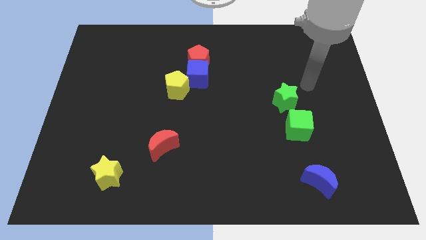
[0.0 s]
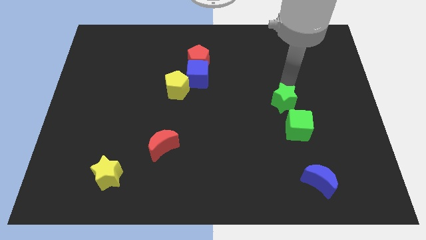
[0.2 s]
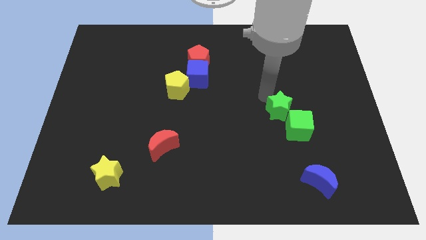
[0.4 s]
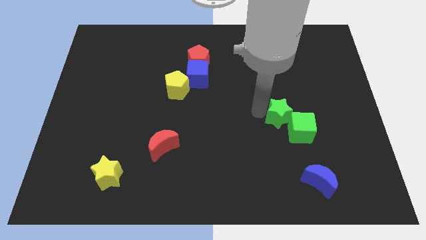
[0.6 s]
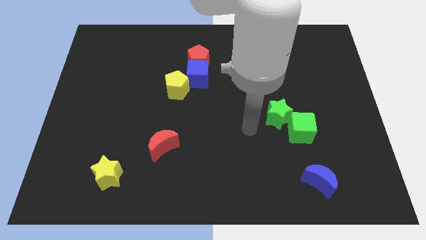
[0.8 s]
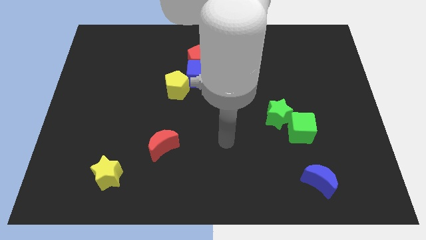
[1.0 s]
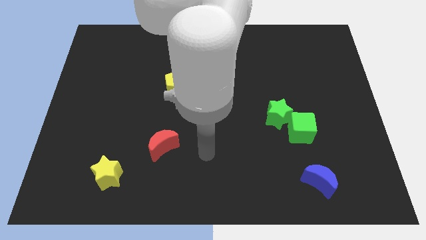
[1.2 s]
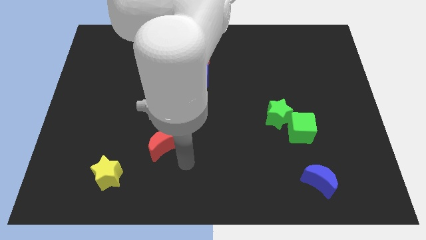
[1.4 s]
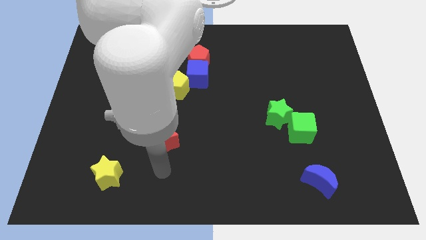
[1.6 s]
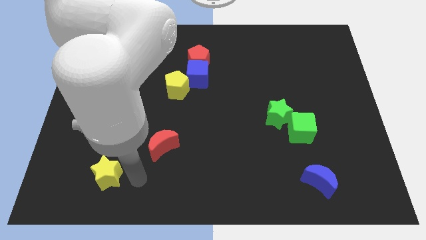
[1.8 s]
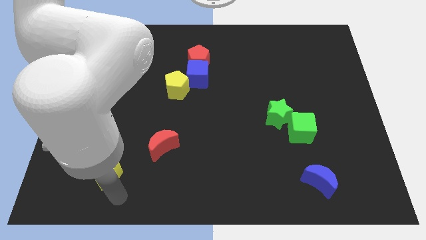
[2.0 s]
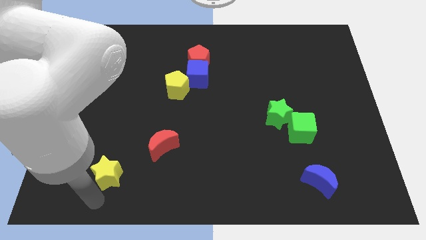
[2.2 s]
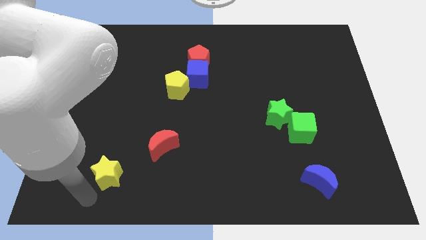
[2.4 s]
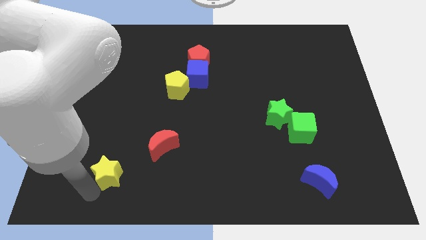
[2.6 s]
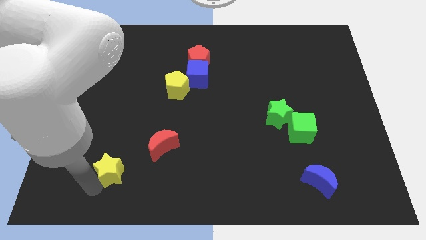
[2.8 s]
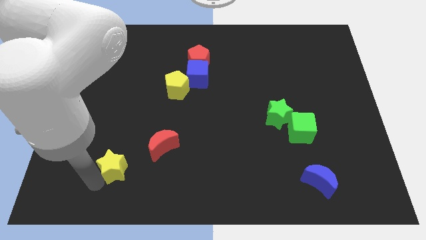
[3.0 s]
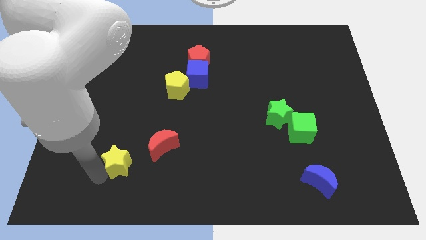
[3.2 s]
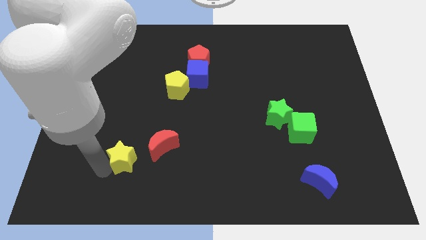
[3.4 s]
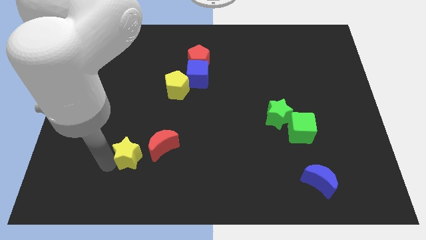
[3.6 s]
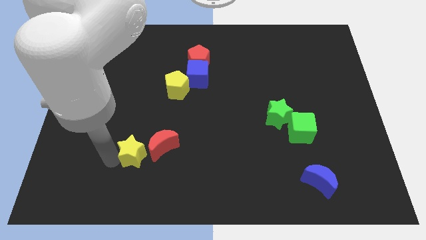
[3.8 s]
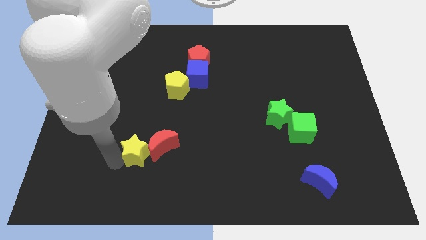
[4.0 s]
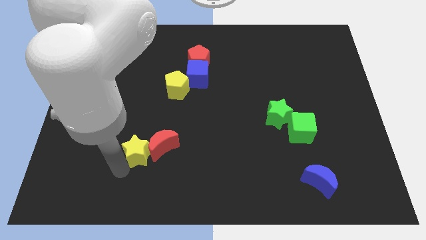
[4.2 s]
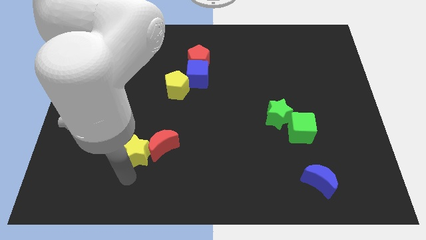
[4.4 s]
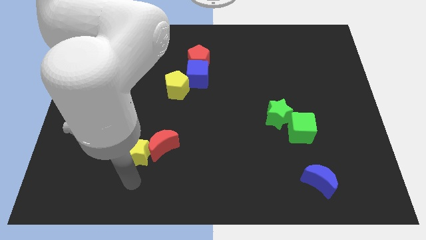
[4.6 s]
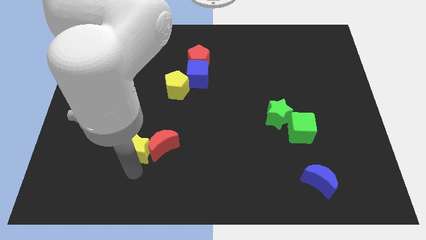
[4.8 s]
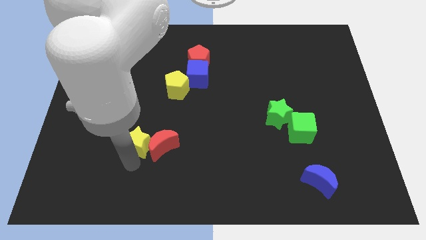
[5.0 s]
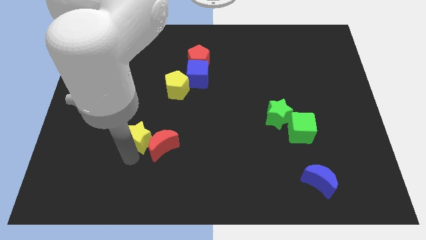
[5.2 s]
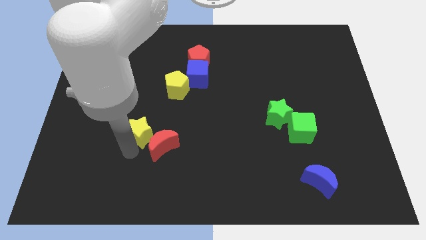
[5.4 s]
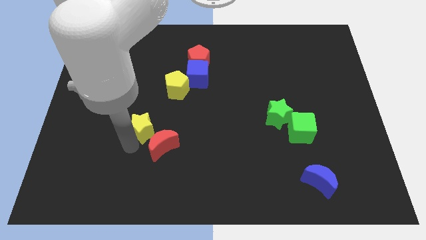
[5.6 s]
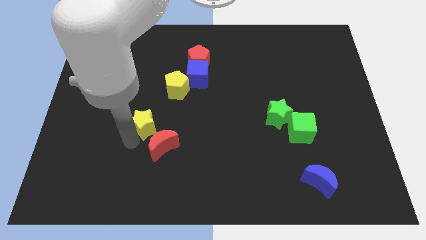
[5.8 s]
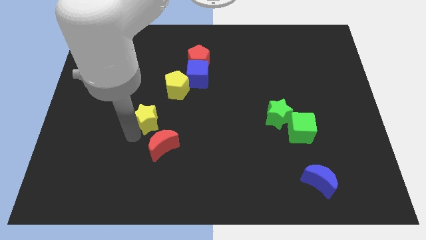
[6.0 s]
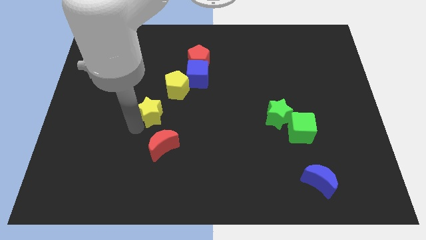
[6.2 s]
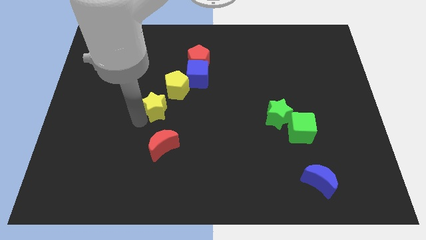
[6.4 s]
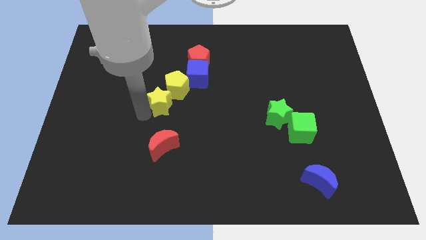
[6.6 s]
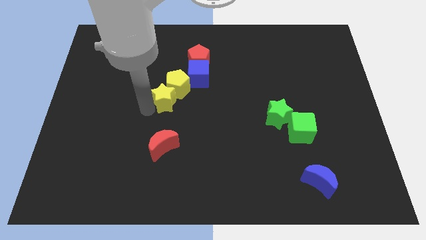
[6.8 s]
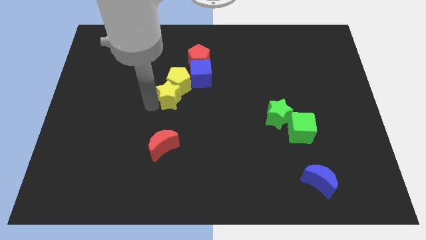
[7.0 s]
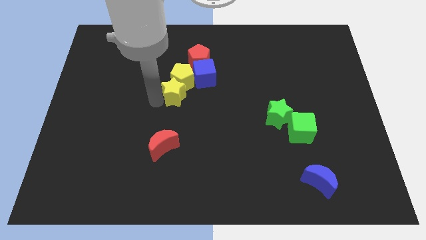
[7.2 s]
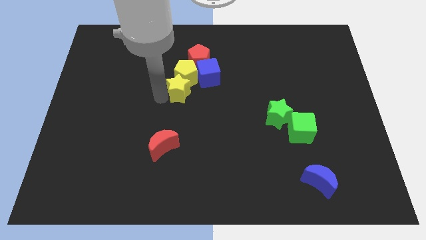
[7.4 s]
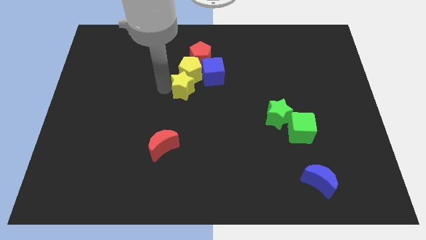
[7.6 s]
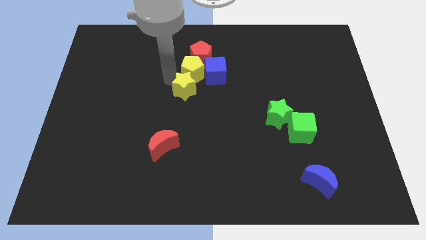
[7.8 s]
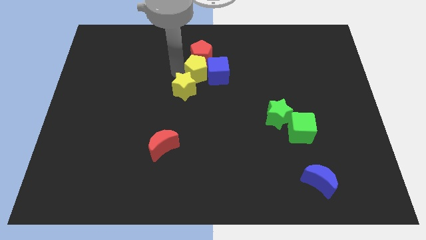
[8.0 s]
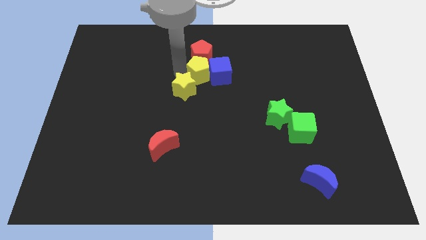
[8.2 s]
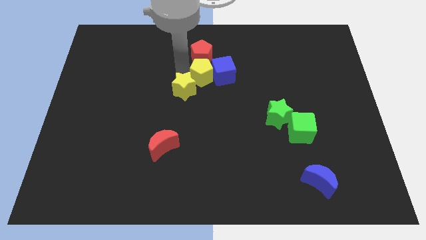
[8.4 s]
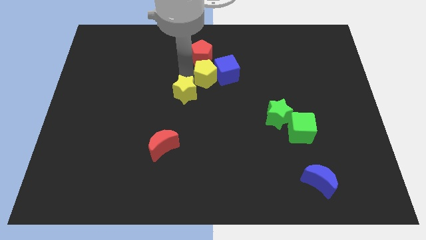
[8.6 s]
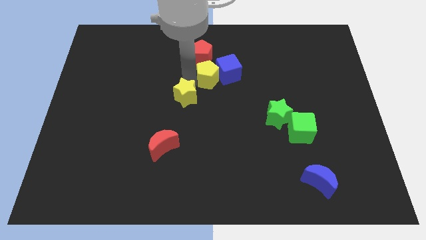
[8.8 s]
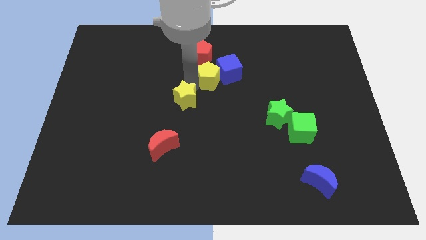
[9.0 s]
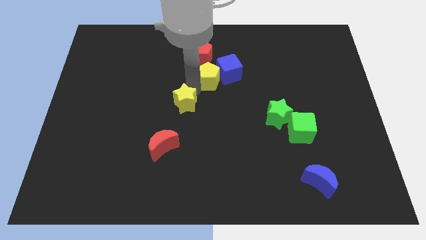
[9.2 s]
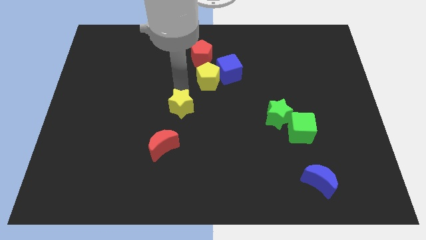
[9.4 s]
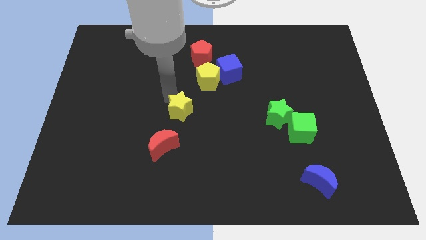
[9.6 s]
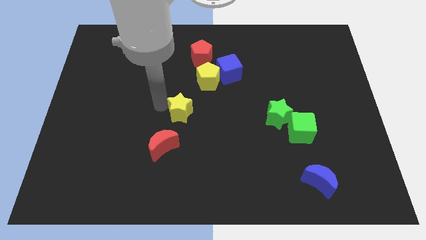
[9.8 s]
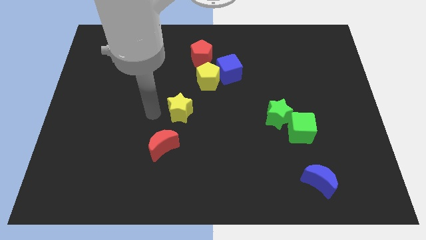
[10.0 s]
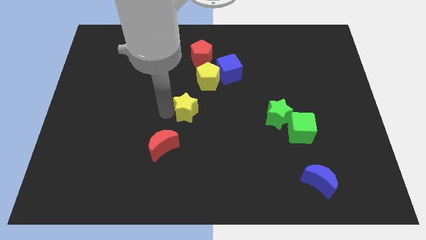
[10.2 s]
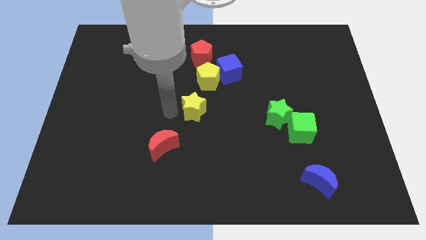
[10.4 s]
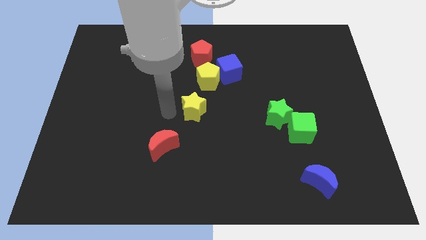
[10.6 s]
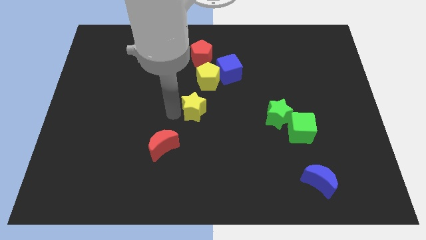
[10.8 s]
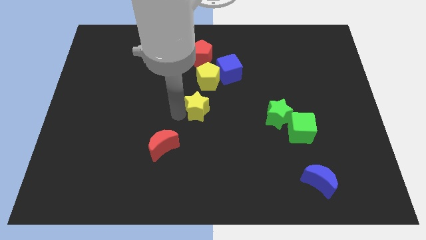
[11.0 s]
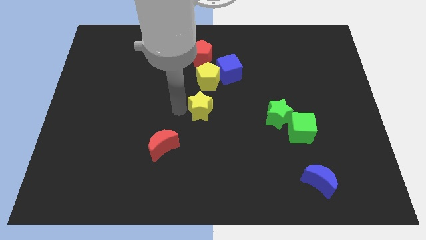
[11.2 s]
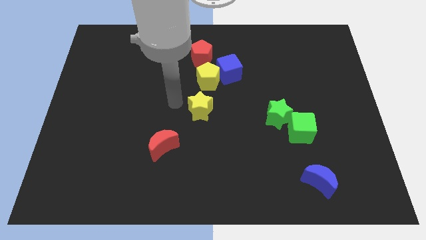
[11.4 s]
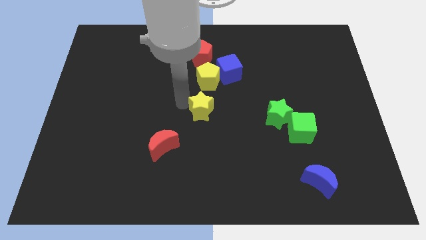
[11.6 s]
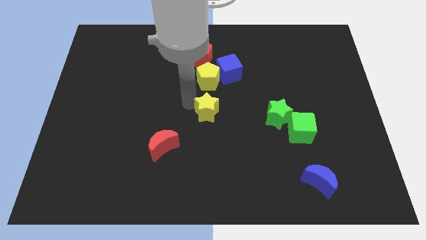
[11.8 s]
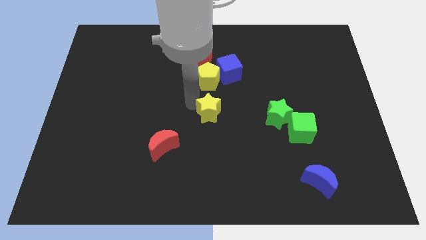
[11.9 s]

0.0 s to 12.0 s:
put the yellow star to the left side of the green star
